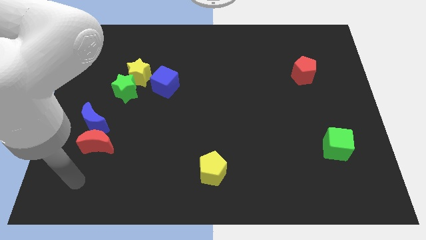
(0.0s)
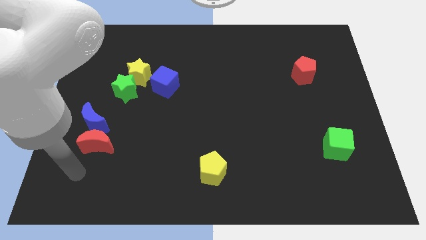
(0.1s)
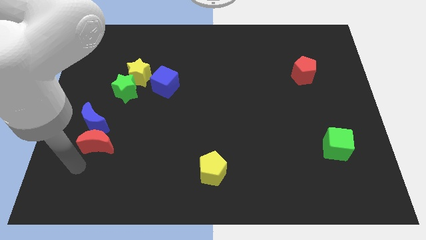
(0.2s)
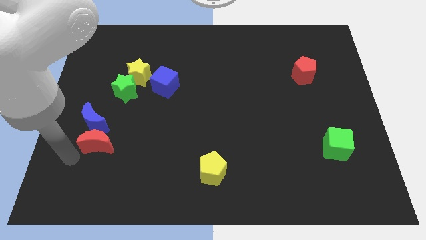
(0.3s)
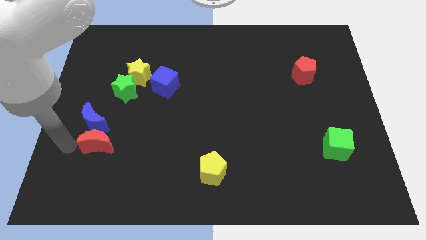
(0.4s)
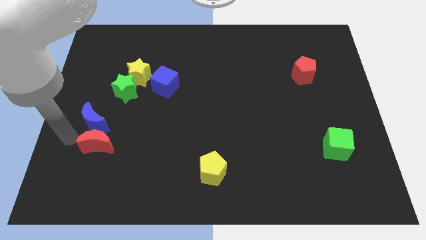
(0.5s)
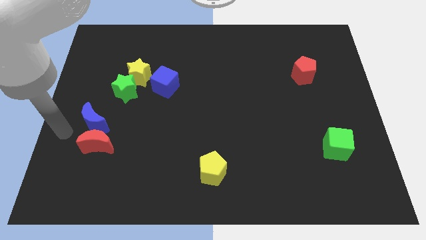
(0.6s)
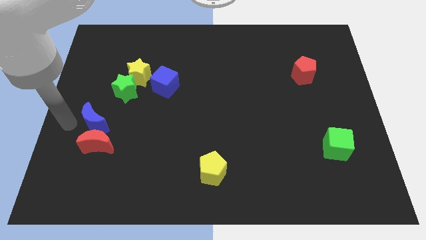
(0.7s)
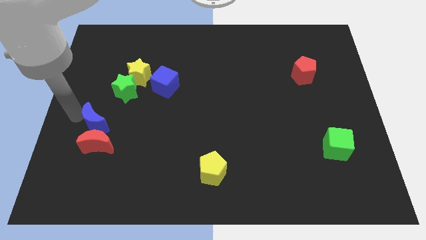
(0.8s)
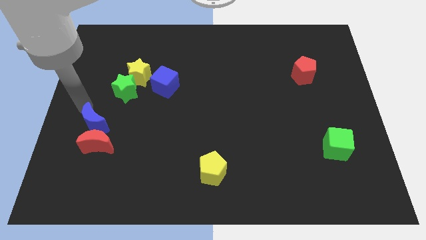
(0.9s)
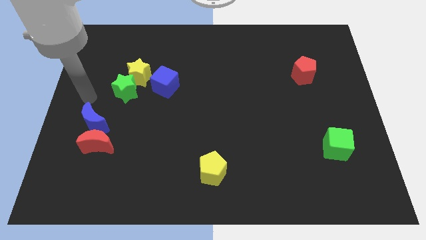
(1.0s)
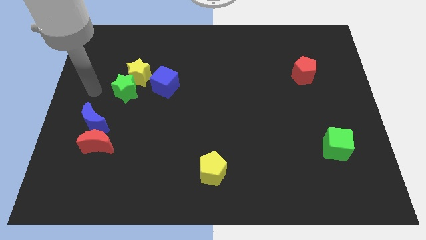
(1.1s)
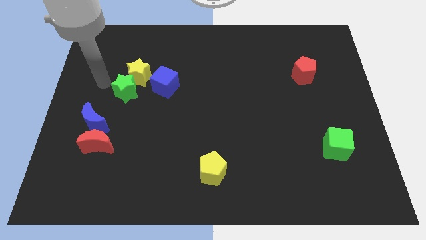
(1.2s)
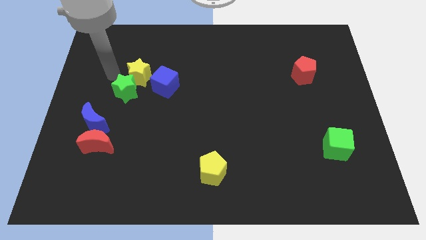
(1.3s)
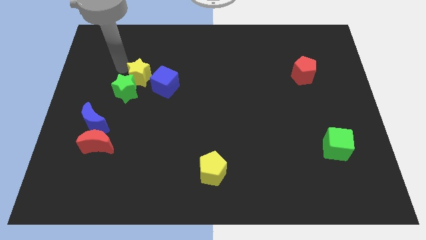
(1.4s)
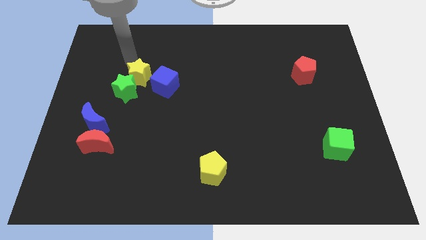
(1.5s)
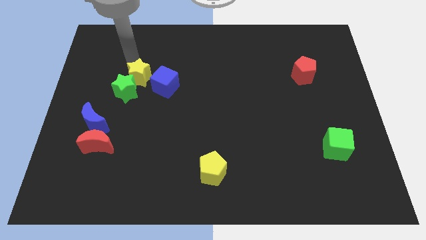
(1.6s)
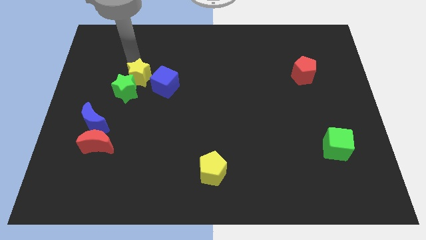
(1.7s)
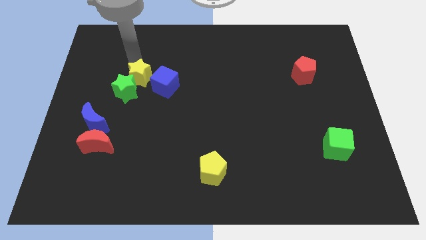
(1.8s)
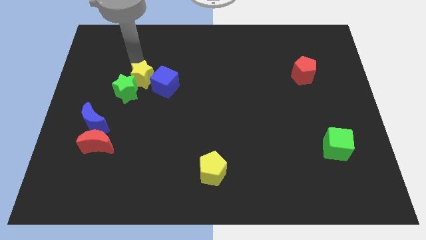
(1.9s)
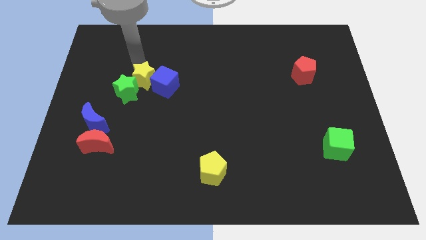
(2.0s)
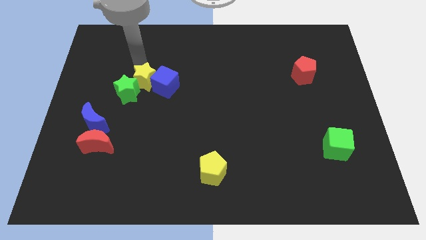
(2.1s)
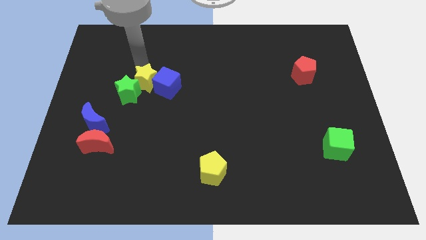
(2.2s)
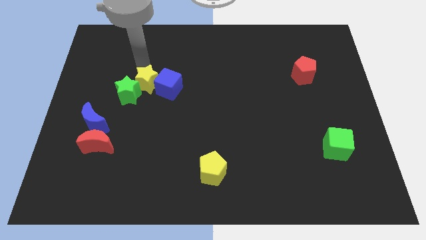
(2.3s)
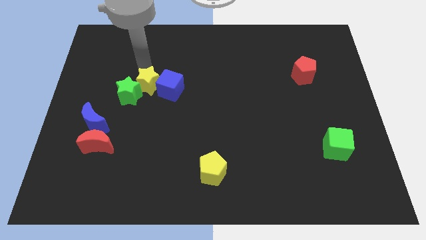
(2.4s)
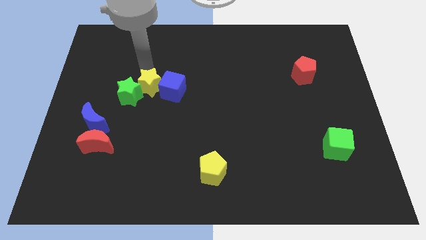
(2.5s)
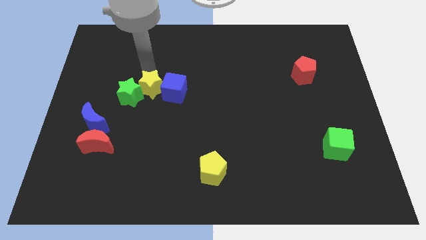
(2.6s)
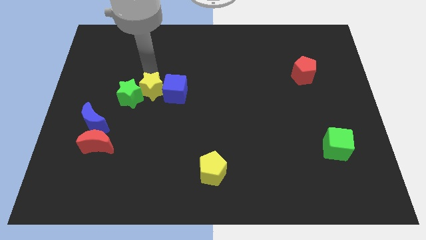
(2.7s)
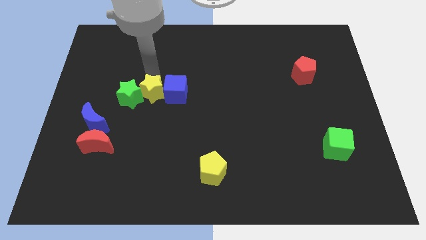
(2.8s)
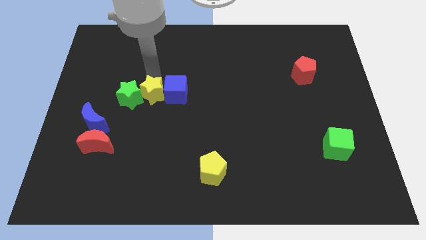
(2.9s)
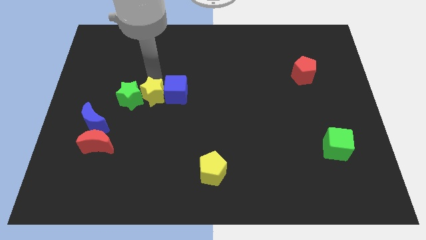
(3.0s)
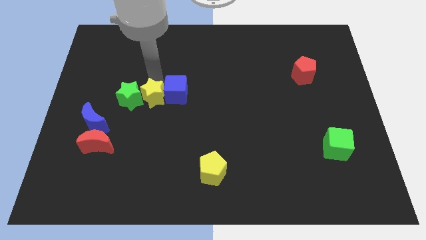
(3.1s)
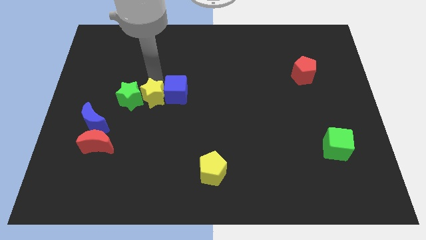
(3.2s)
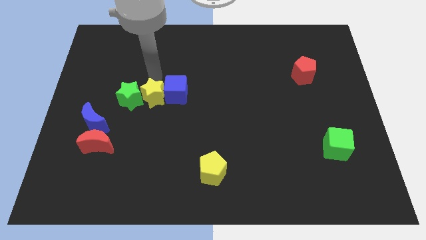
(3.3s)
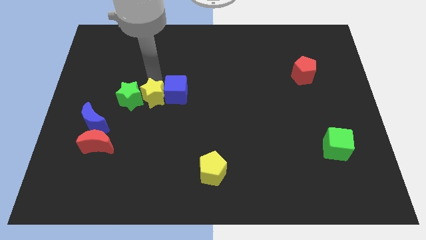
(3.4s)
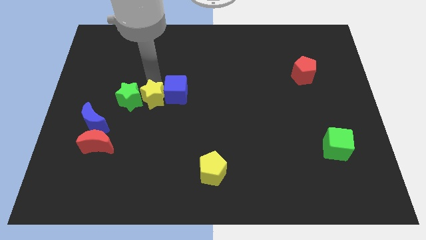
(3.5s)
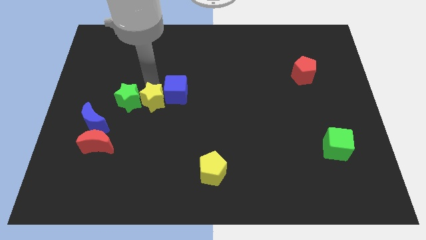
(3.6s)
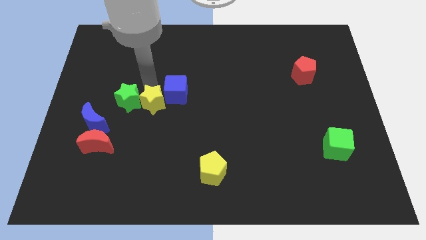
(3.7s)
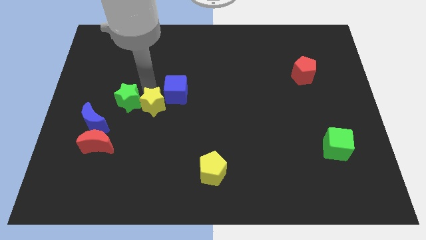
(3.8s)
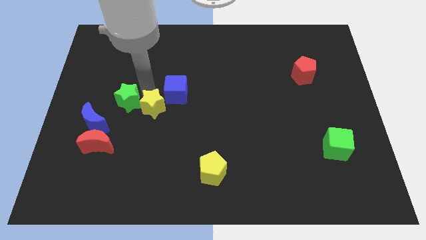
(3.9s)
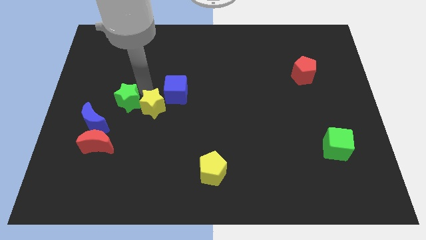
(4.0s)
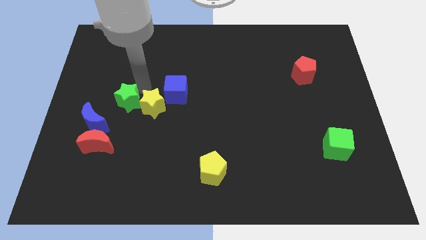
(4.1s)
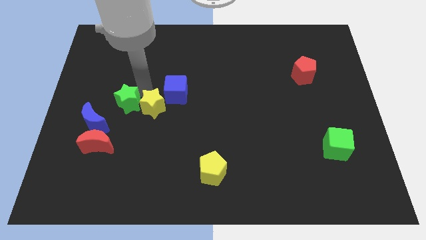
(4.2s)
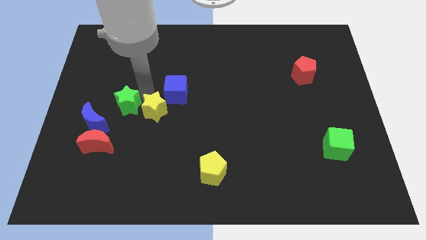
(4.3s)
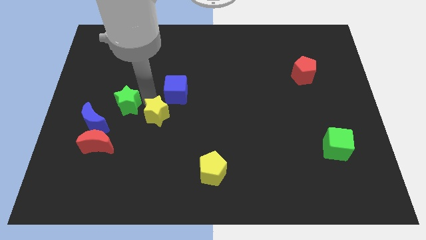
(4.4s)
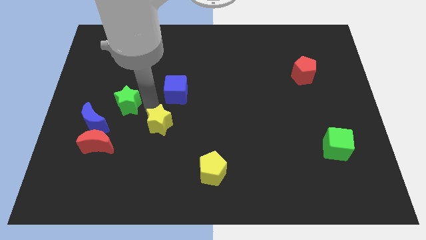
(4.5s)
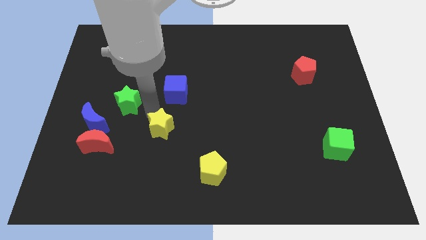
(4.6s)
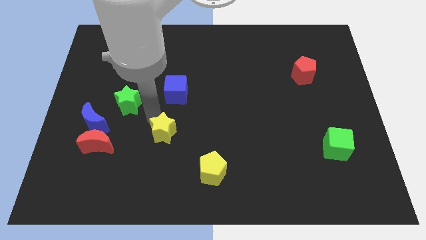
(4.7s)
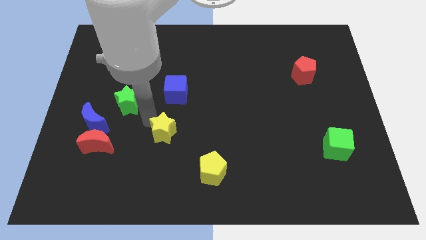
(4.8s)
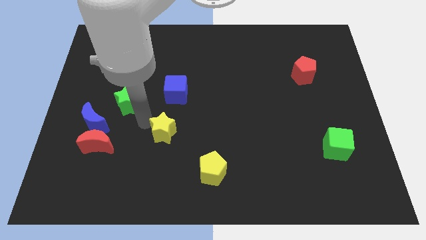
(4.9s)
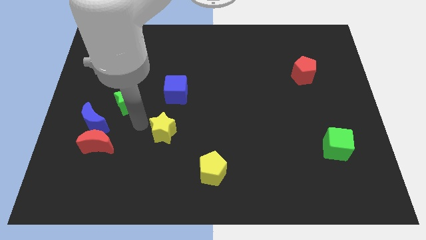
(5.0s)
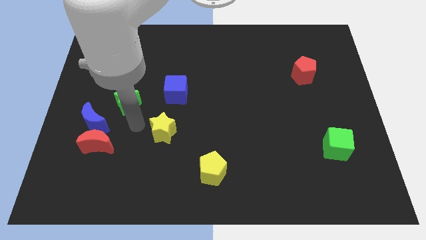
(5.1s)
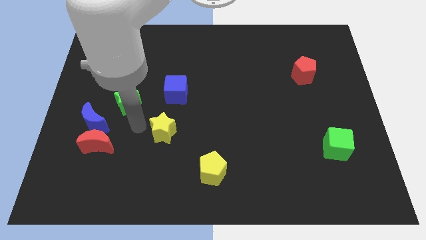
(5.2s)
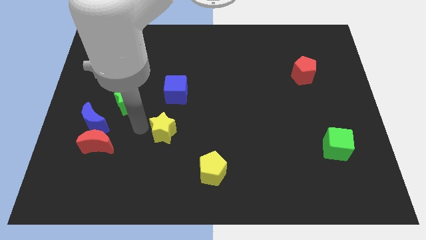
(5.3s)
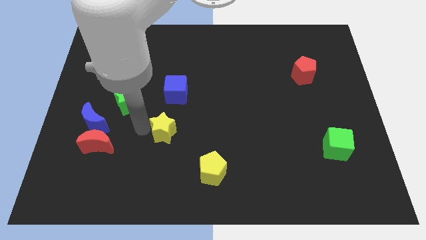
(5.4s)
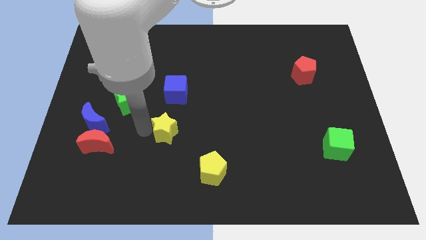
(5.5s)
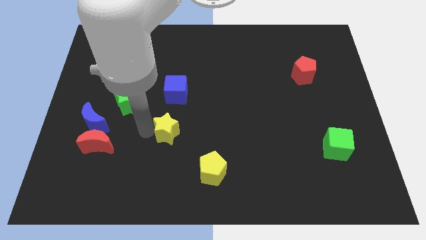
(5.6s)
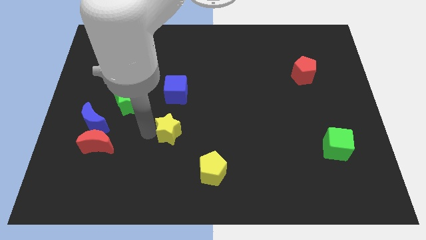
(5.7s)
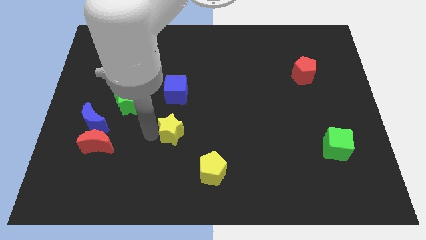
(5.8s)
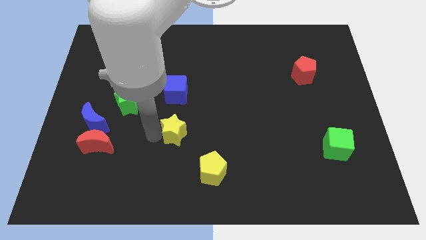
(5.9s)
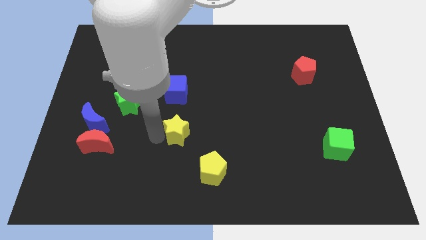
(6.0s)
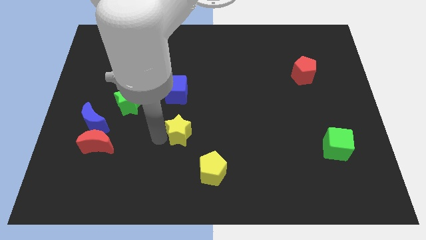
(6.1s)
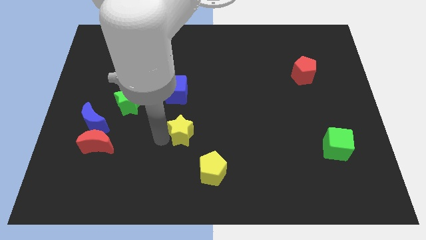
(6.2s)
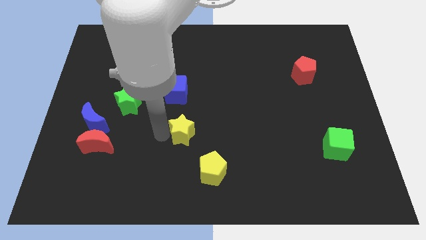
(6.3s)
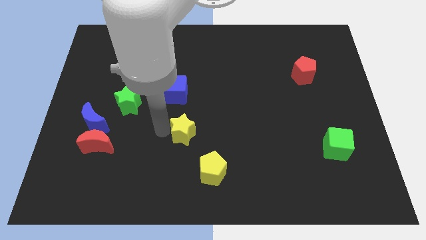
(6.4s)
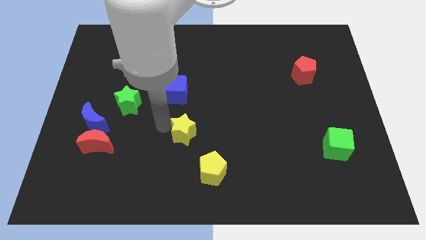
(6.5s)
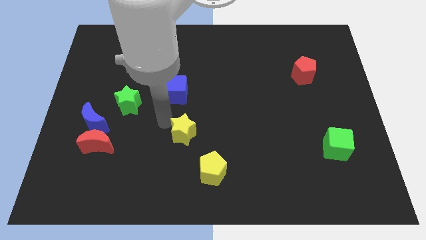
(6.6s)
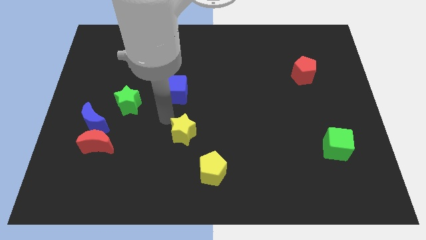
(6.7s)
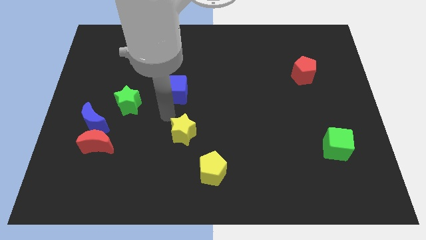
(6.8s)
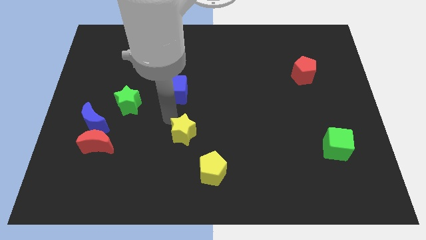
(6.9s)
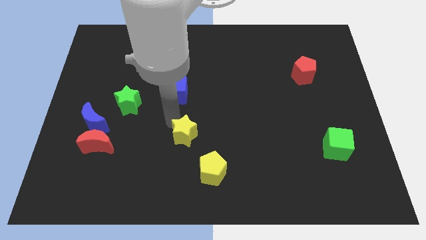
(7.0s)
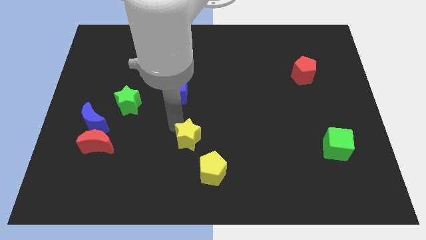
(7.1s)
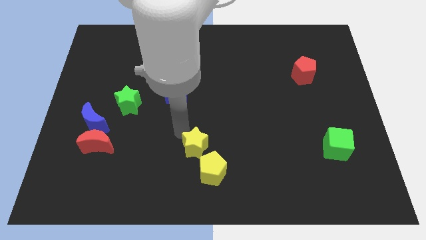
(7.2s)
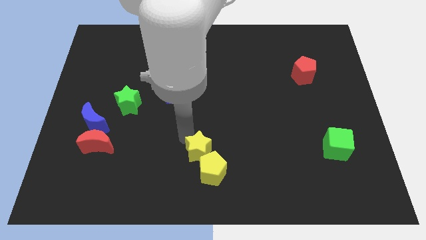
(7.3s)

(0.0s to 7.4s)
slide the yellow star close to the yellow pentagon
